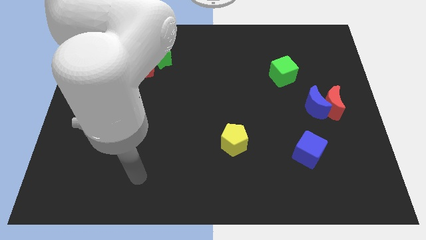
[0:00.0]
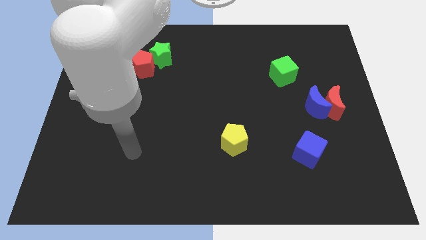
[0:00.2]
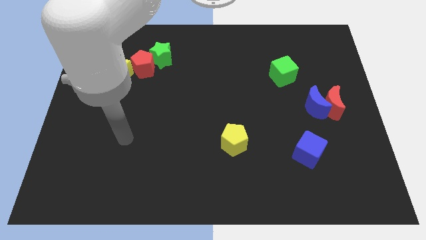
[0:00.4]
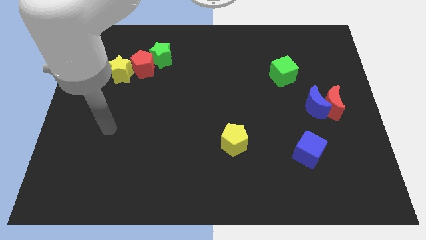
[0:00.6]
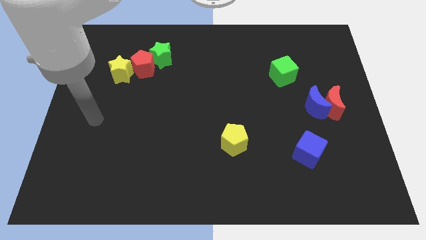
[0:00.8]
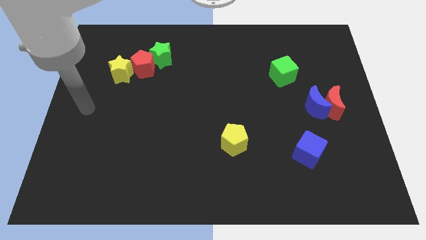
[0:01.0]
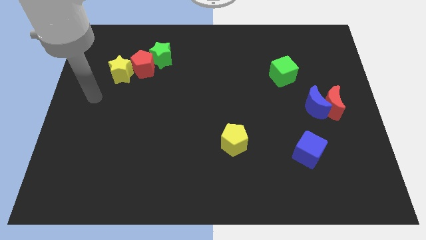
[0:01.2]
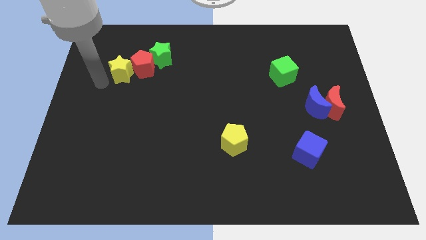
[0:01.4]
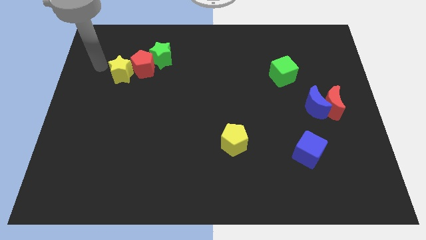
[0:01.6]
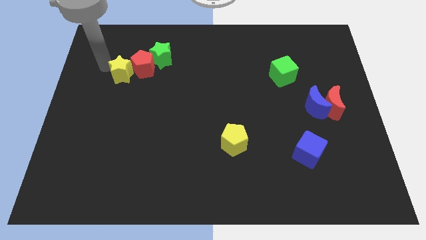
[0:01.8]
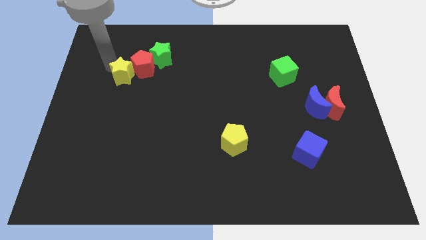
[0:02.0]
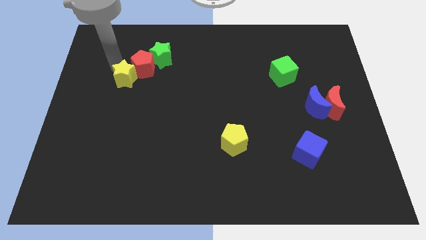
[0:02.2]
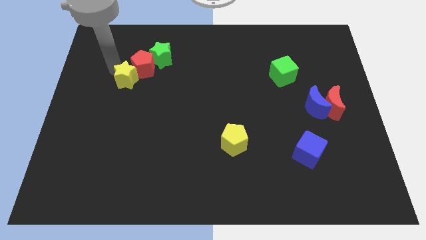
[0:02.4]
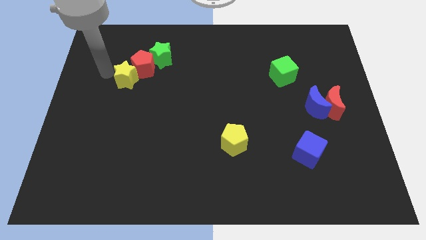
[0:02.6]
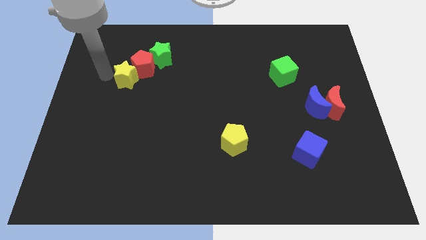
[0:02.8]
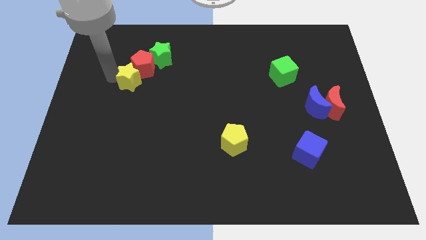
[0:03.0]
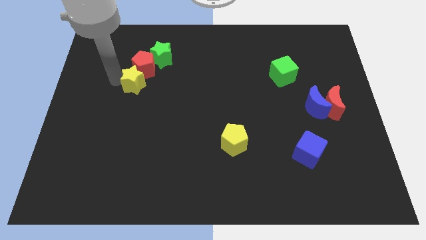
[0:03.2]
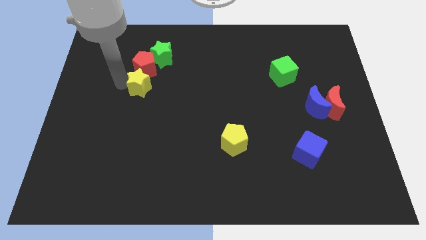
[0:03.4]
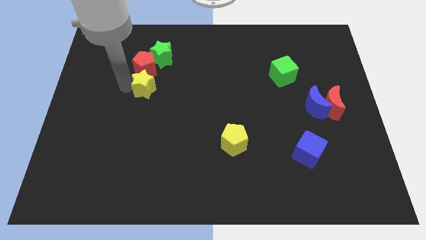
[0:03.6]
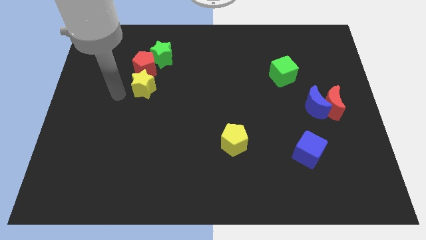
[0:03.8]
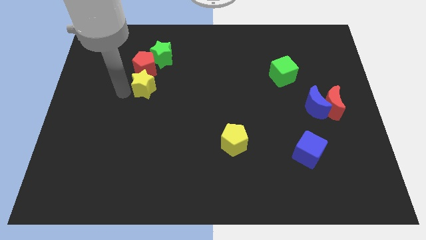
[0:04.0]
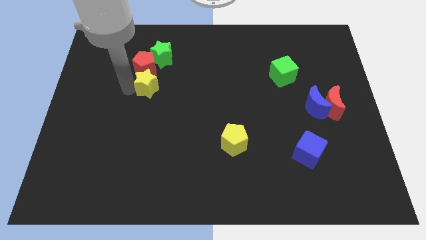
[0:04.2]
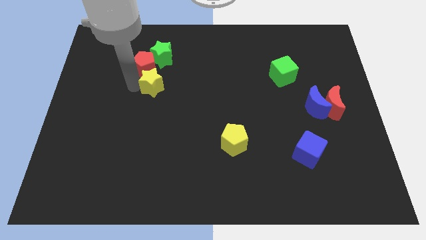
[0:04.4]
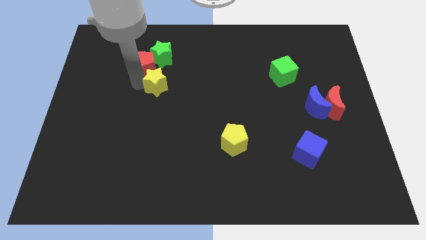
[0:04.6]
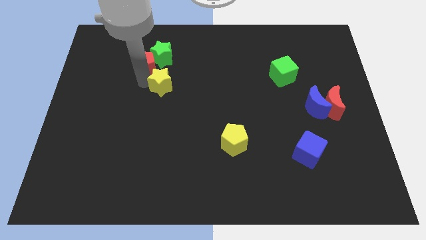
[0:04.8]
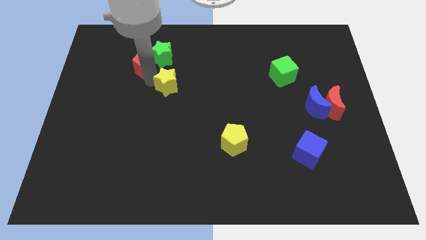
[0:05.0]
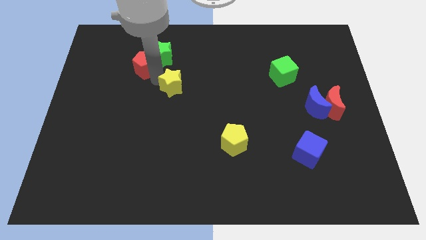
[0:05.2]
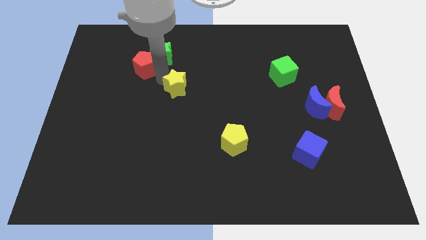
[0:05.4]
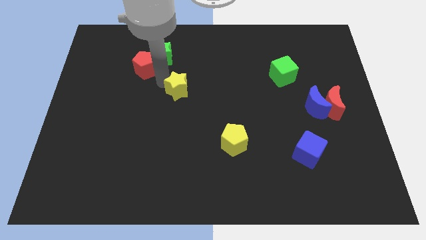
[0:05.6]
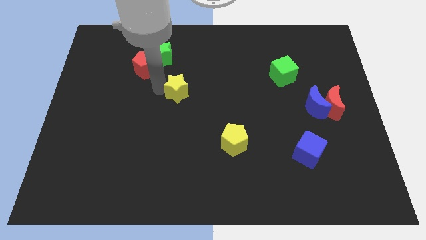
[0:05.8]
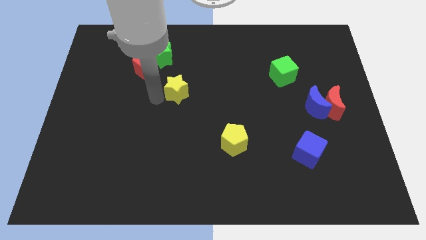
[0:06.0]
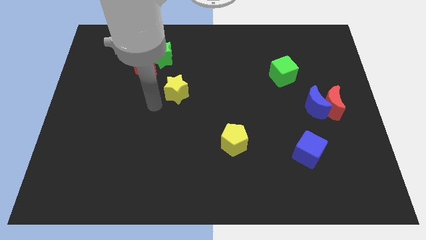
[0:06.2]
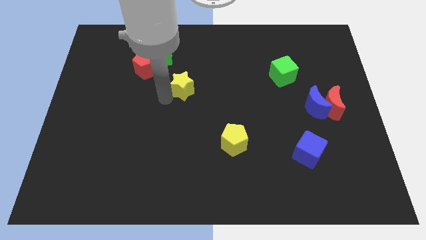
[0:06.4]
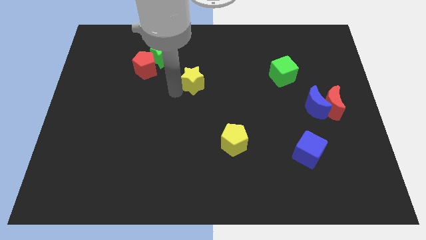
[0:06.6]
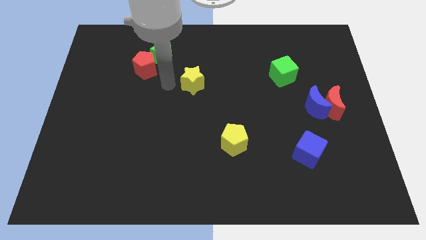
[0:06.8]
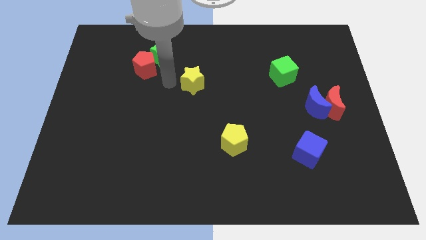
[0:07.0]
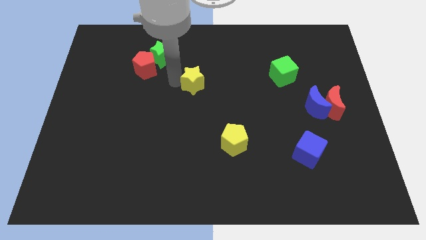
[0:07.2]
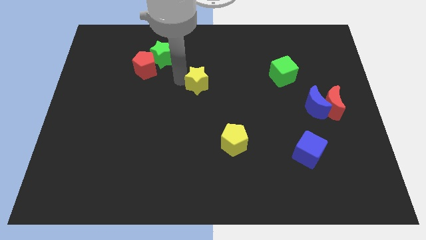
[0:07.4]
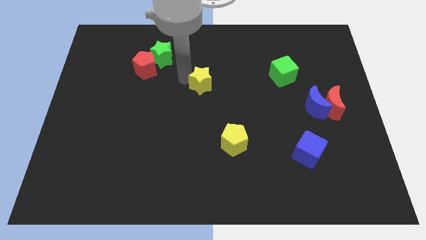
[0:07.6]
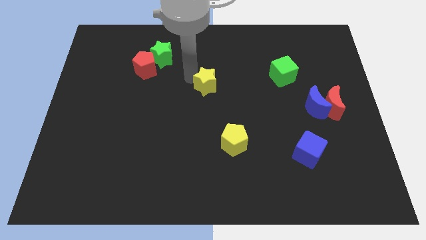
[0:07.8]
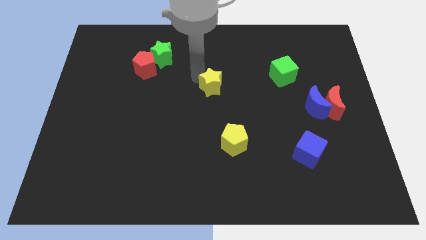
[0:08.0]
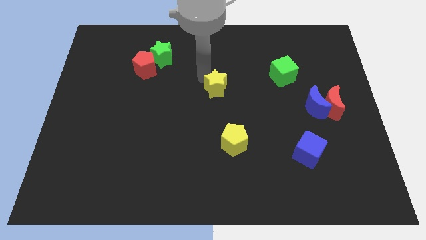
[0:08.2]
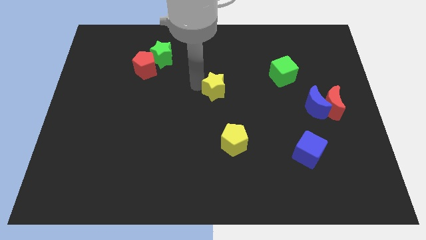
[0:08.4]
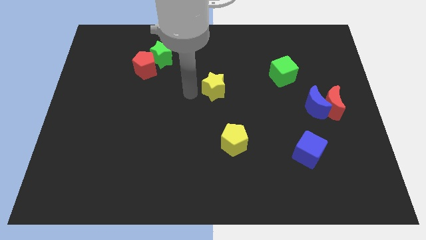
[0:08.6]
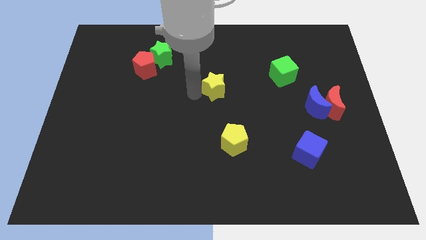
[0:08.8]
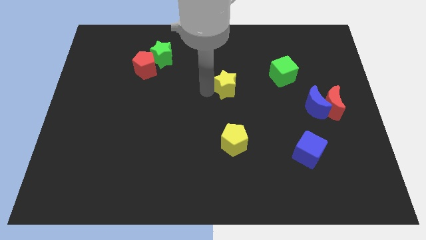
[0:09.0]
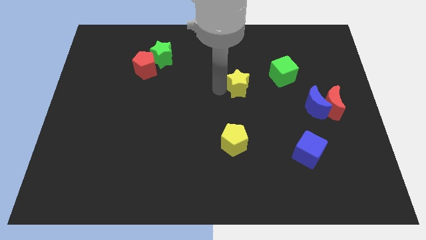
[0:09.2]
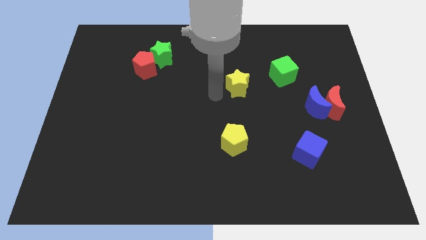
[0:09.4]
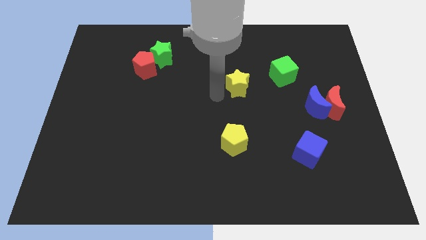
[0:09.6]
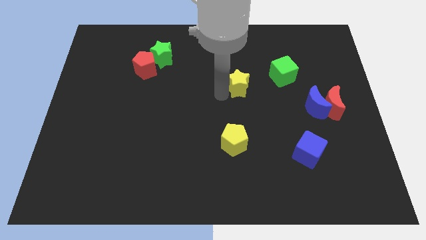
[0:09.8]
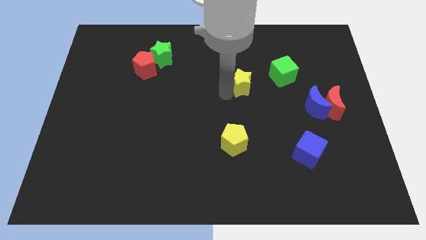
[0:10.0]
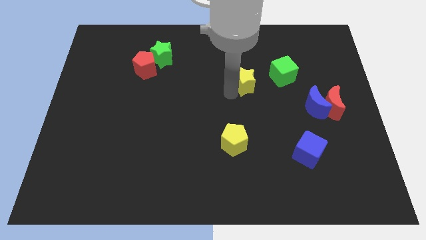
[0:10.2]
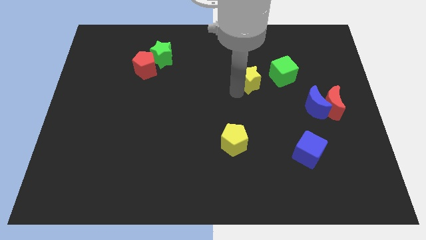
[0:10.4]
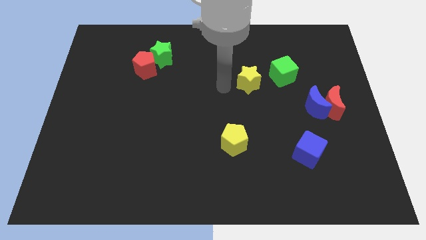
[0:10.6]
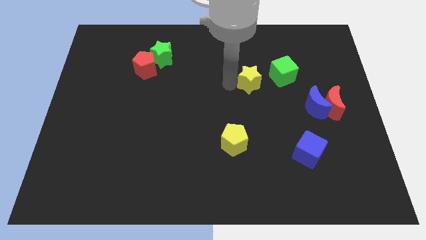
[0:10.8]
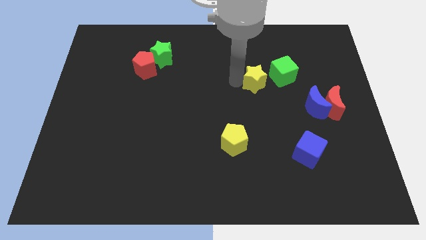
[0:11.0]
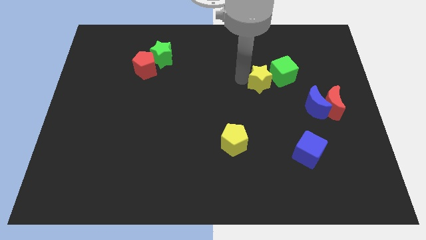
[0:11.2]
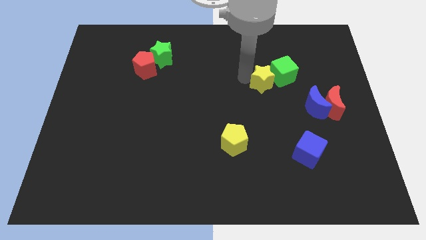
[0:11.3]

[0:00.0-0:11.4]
put the yellow star towards the green cube

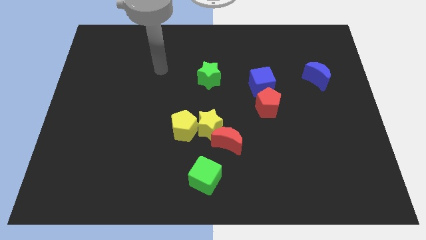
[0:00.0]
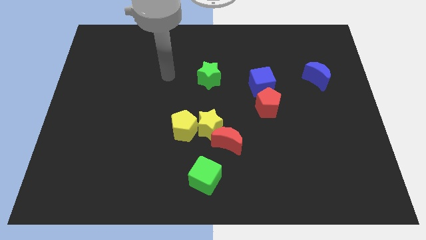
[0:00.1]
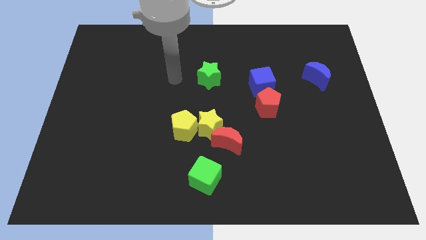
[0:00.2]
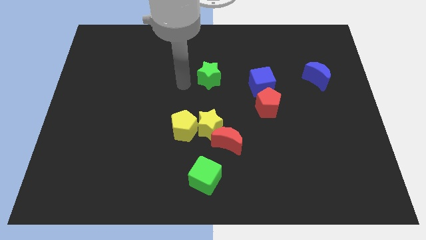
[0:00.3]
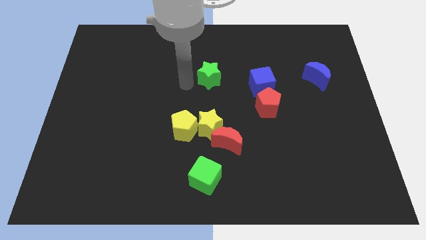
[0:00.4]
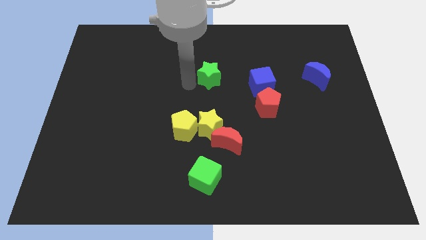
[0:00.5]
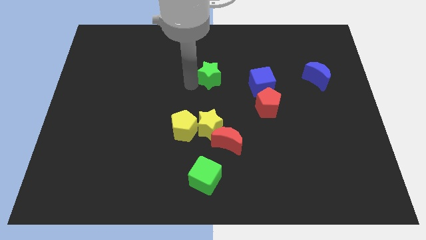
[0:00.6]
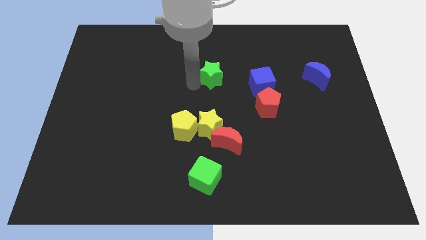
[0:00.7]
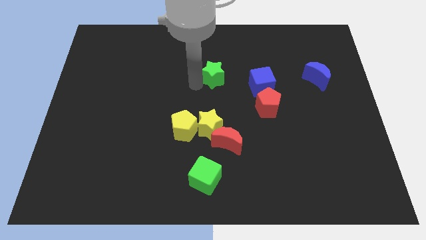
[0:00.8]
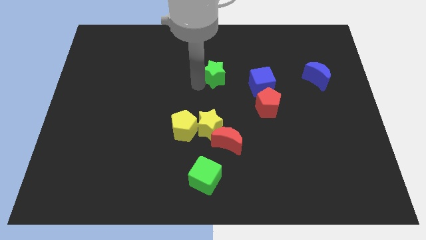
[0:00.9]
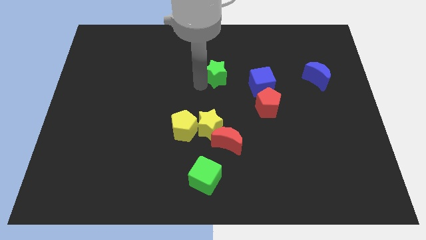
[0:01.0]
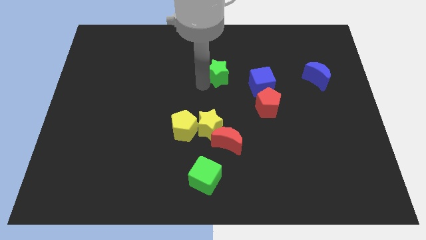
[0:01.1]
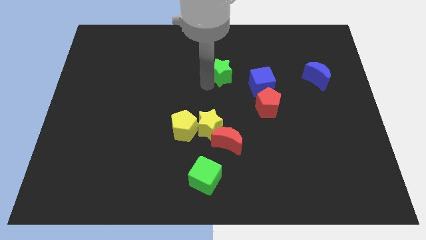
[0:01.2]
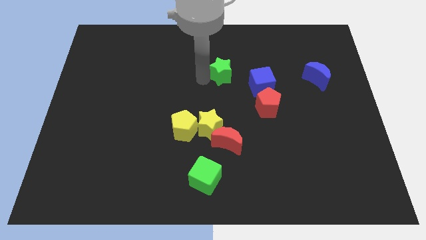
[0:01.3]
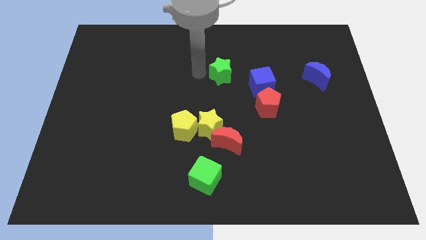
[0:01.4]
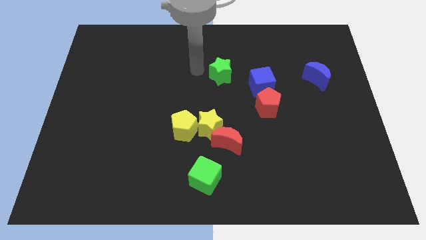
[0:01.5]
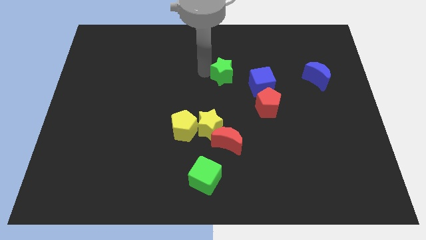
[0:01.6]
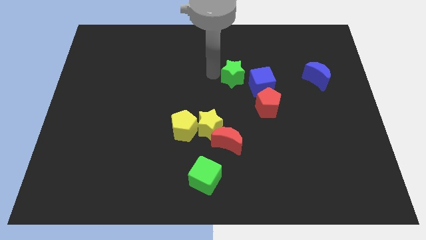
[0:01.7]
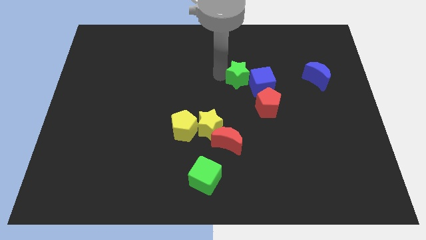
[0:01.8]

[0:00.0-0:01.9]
slide the green star next to the blue cube

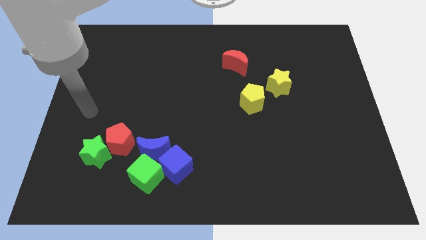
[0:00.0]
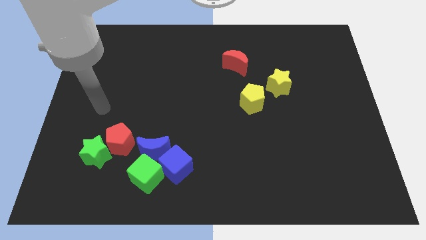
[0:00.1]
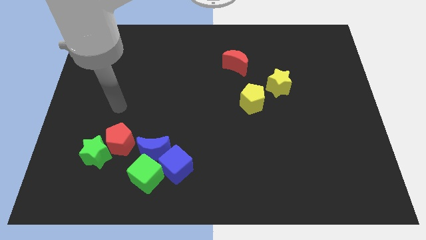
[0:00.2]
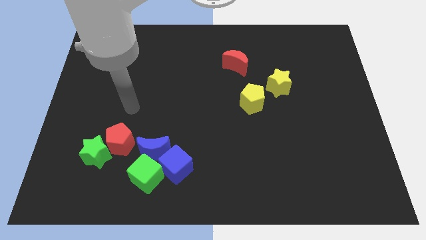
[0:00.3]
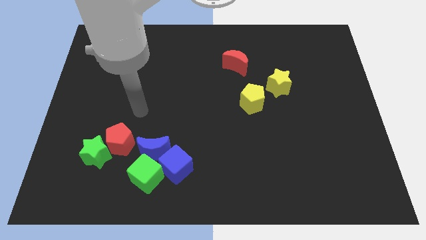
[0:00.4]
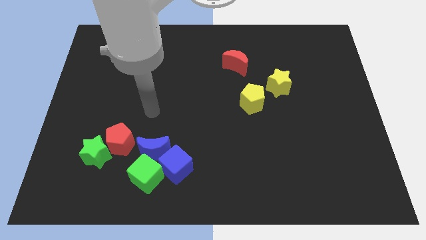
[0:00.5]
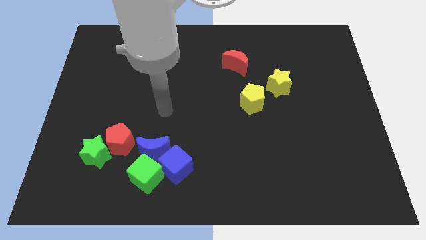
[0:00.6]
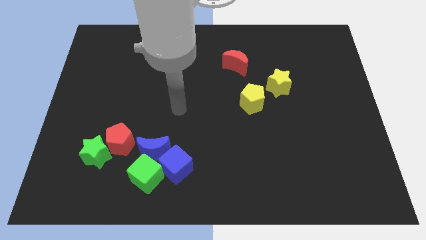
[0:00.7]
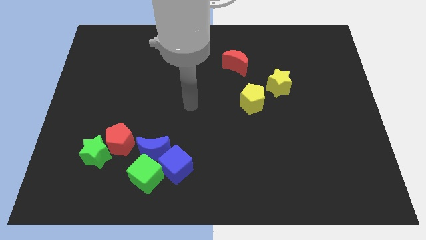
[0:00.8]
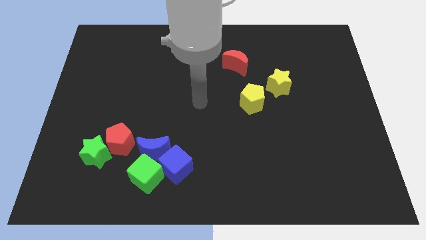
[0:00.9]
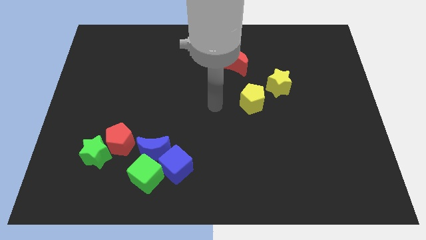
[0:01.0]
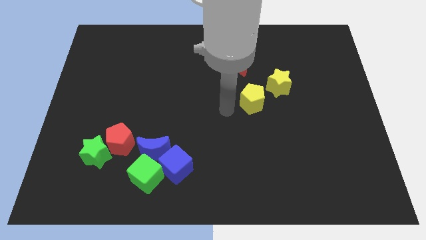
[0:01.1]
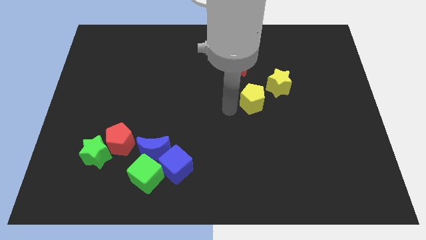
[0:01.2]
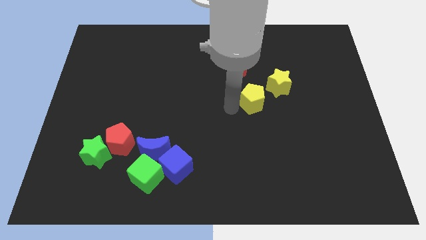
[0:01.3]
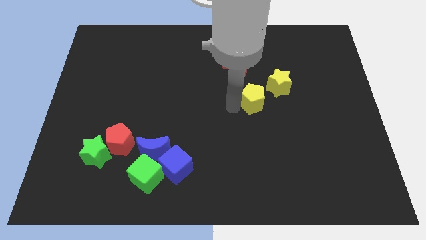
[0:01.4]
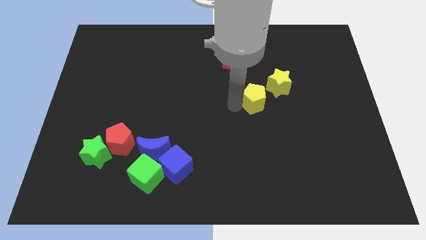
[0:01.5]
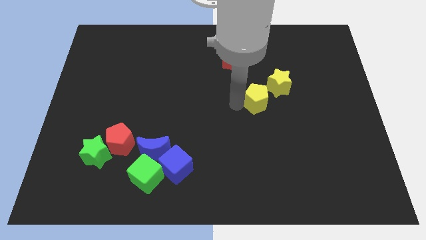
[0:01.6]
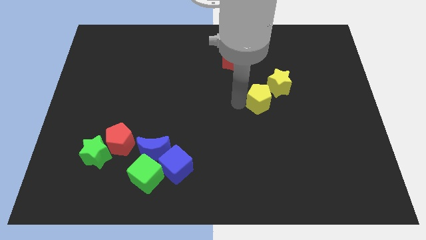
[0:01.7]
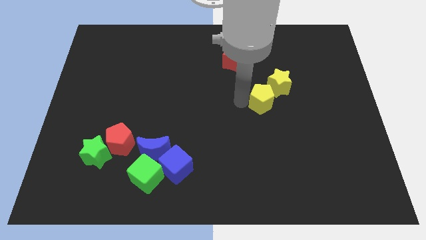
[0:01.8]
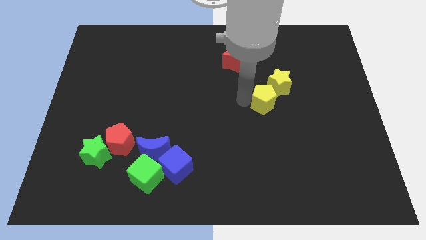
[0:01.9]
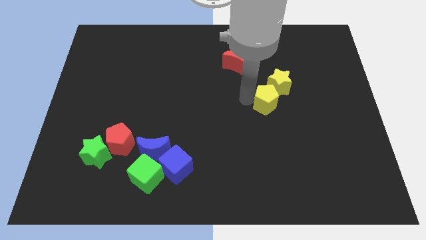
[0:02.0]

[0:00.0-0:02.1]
move the yellow pentagon towards the yellow star
